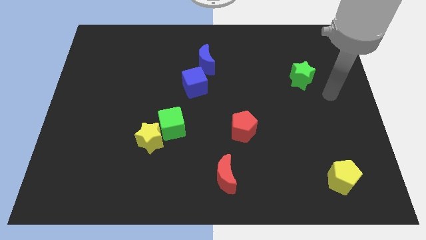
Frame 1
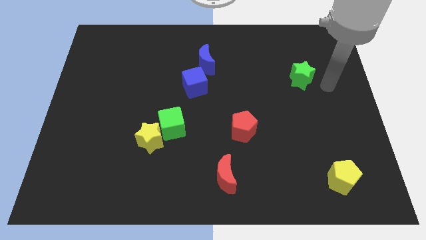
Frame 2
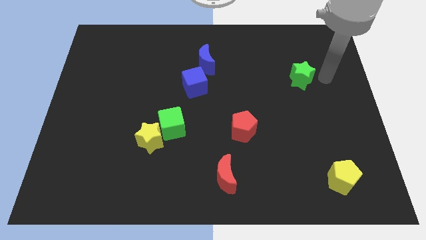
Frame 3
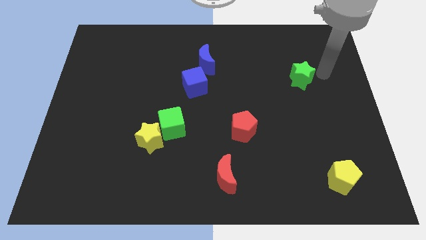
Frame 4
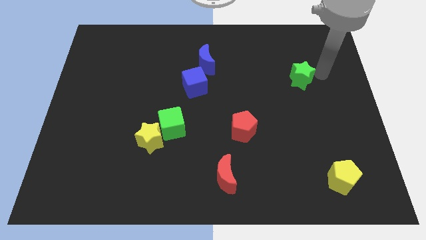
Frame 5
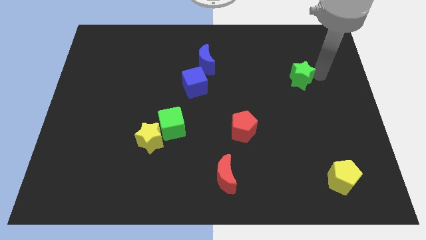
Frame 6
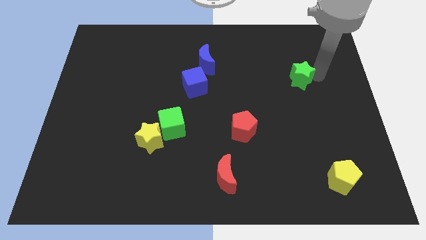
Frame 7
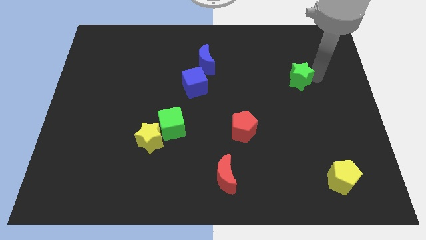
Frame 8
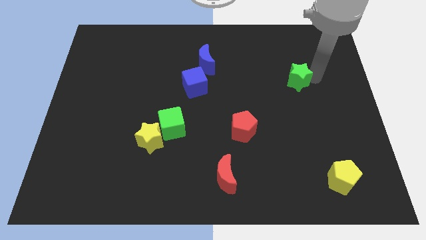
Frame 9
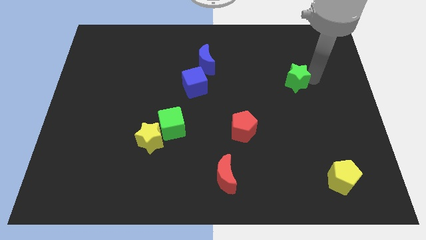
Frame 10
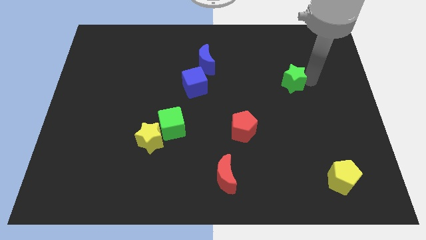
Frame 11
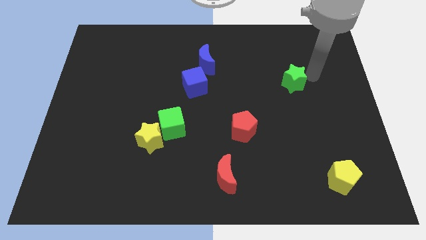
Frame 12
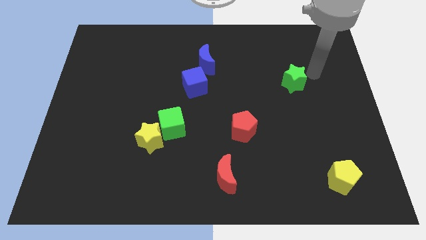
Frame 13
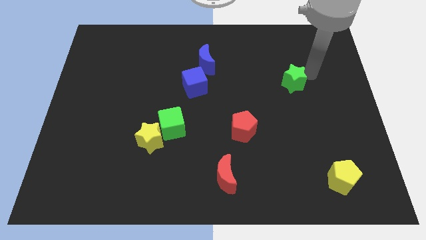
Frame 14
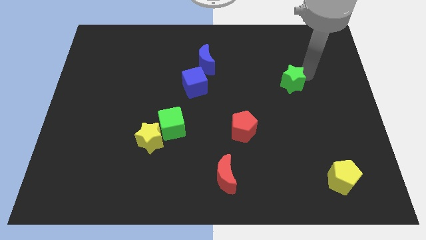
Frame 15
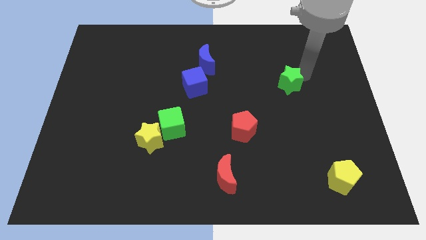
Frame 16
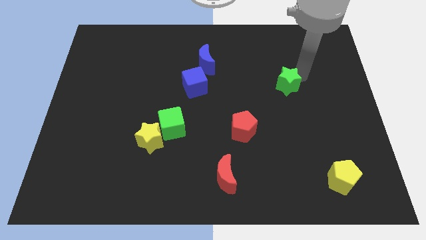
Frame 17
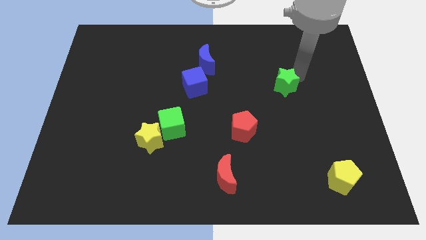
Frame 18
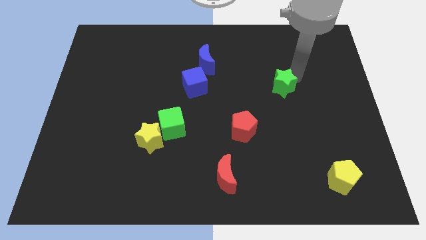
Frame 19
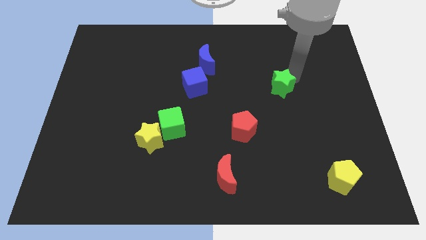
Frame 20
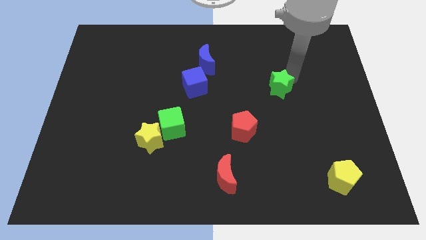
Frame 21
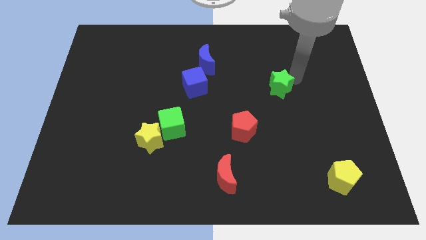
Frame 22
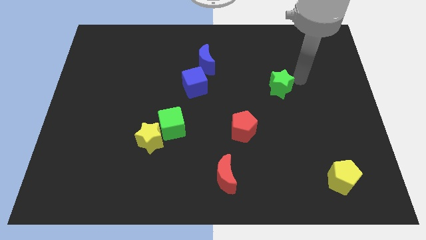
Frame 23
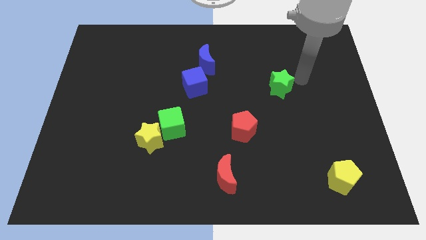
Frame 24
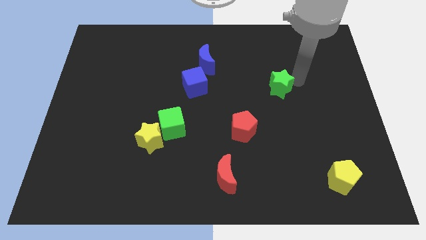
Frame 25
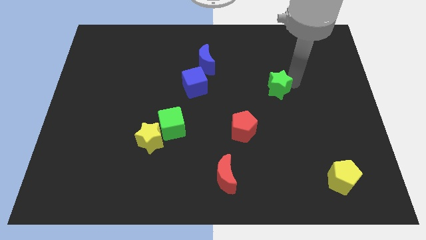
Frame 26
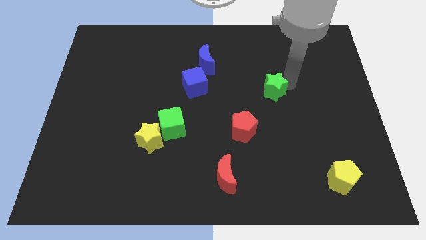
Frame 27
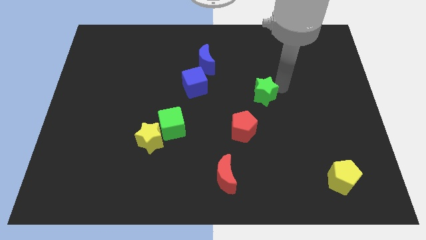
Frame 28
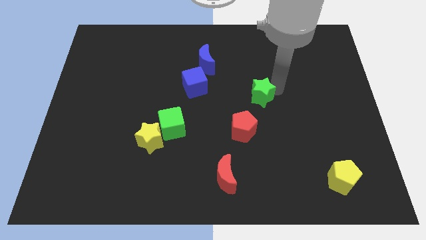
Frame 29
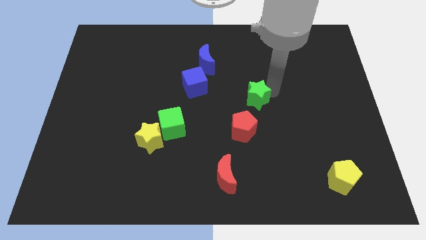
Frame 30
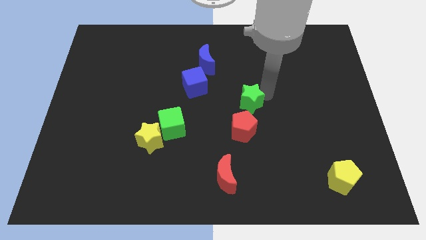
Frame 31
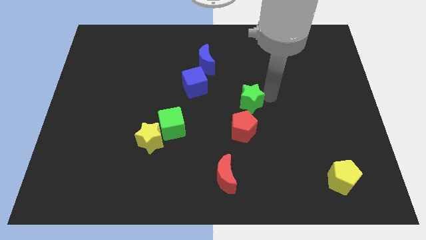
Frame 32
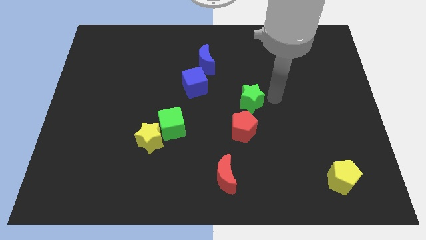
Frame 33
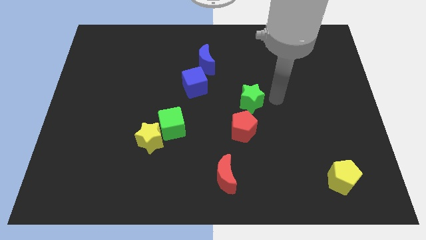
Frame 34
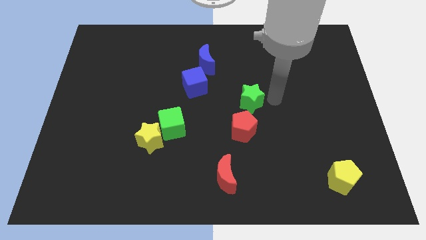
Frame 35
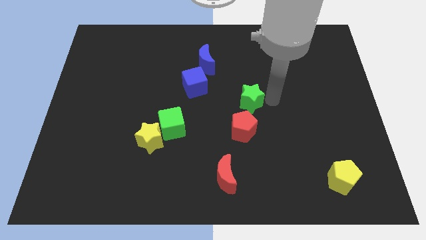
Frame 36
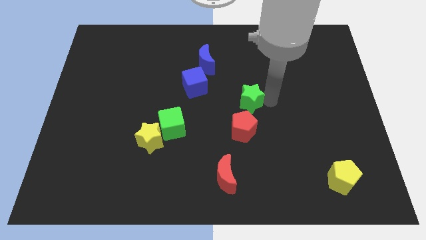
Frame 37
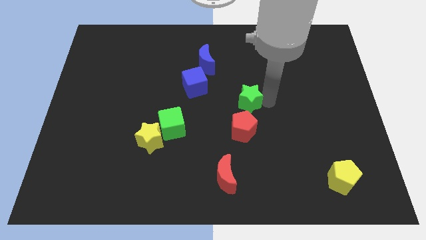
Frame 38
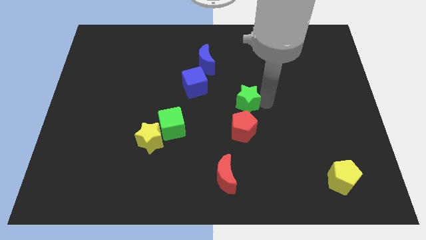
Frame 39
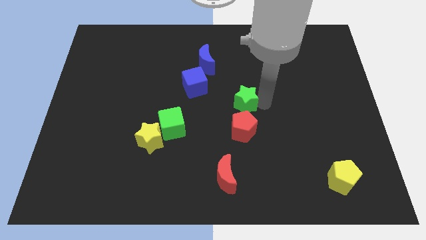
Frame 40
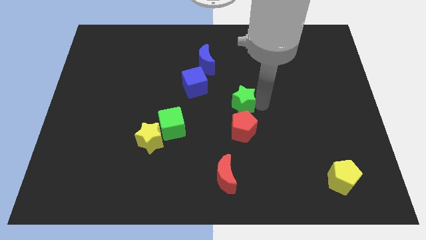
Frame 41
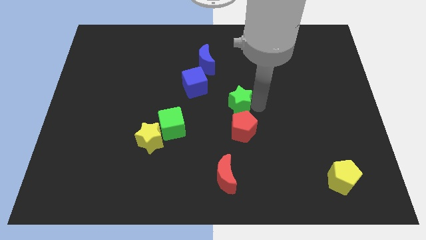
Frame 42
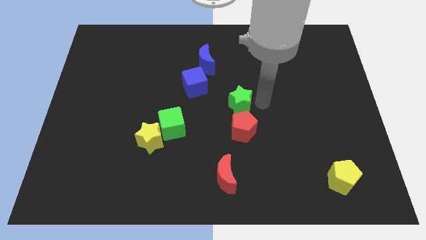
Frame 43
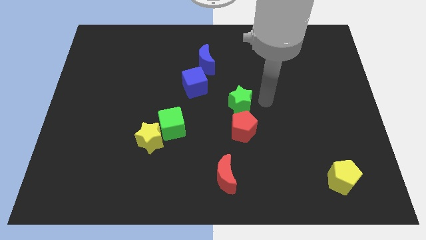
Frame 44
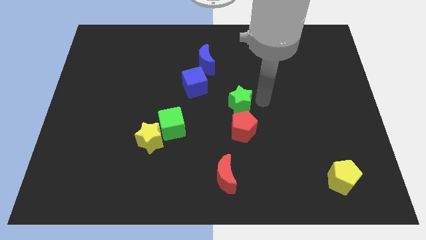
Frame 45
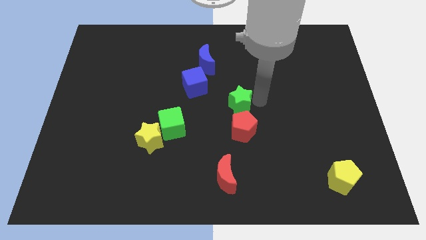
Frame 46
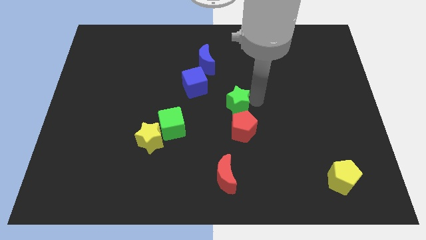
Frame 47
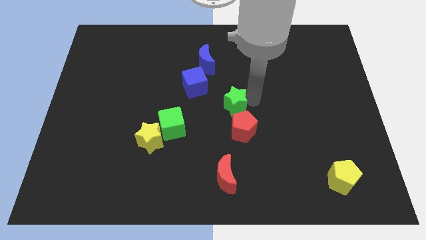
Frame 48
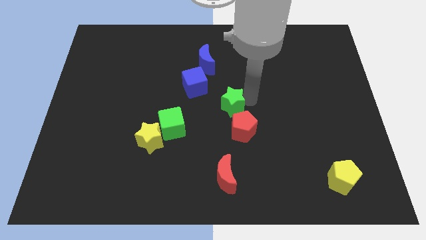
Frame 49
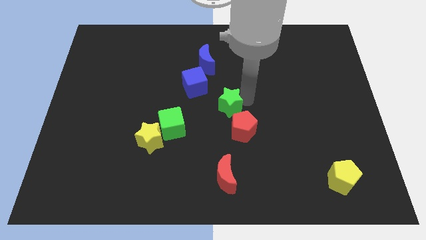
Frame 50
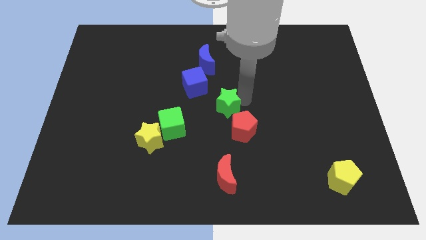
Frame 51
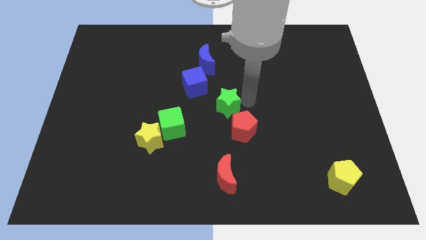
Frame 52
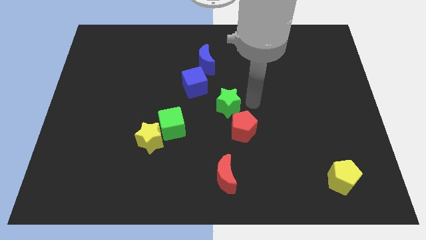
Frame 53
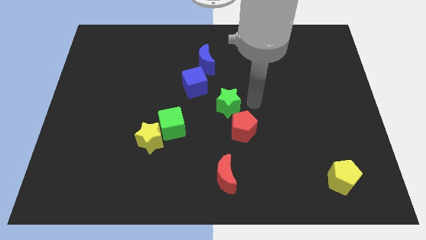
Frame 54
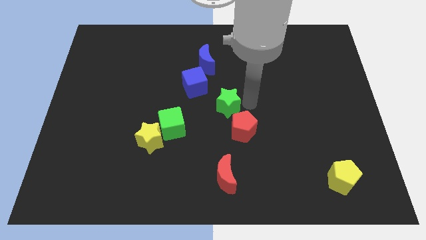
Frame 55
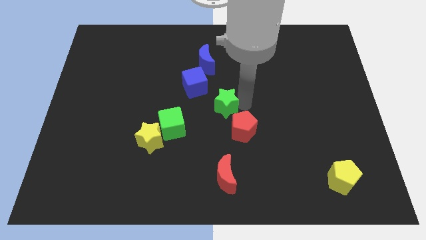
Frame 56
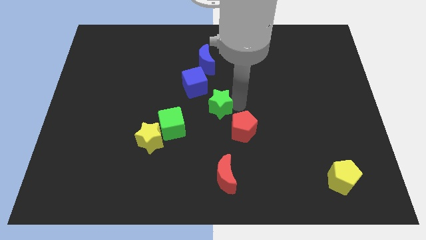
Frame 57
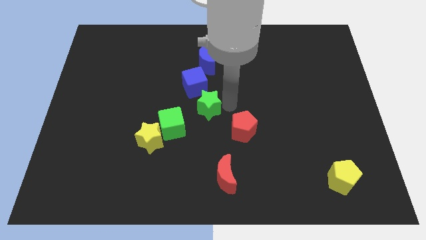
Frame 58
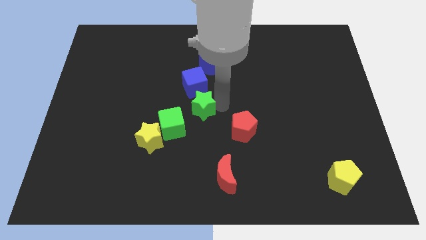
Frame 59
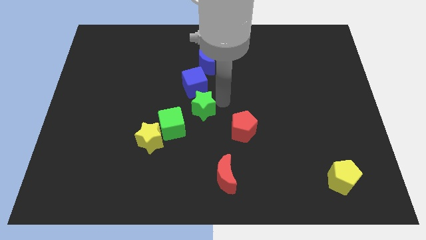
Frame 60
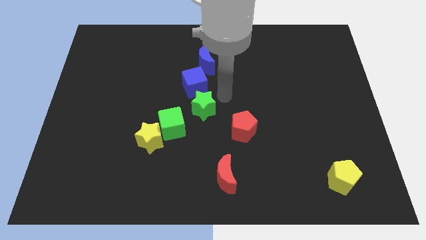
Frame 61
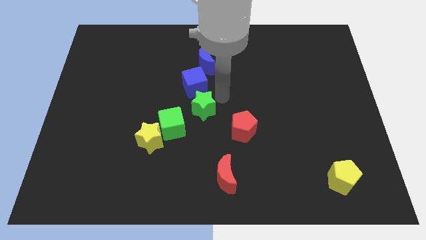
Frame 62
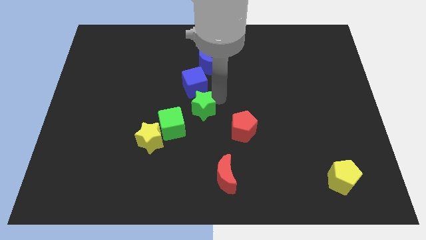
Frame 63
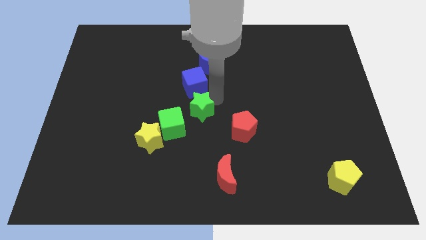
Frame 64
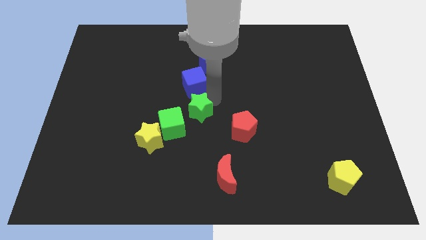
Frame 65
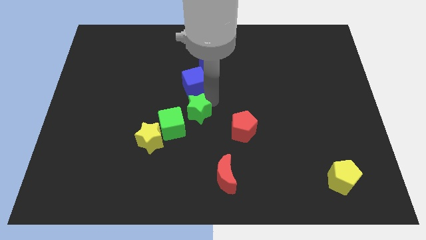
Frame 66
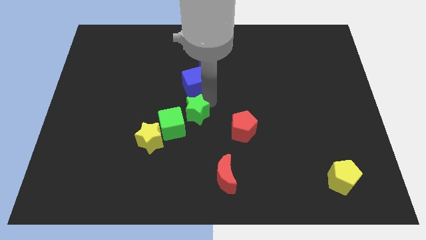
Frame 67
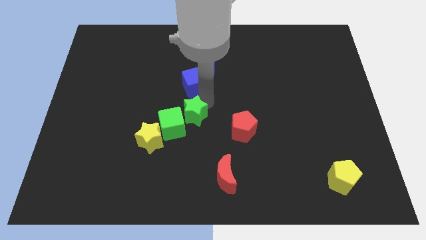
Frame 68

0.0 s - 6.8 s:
push the green star to the green cube
